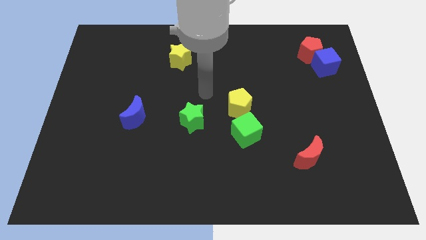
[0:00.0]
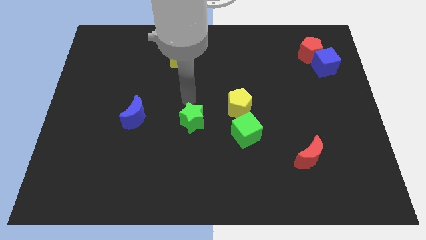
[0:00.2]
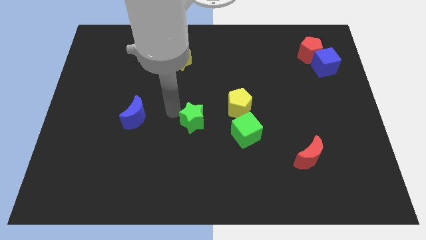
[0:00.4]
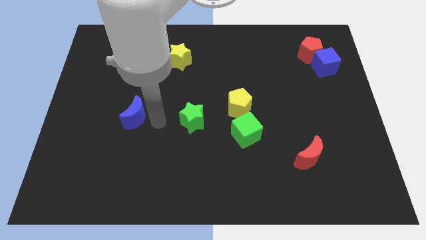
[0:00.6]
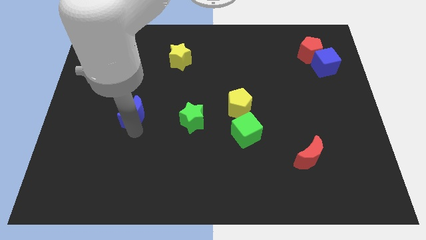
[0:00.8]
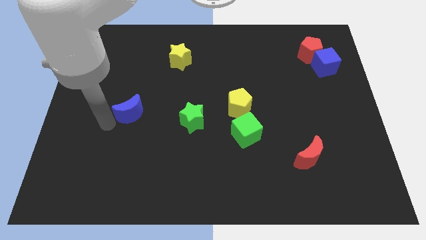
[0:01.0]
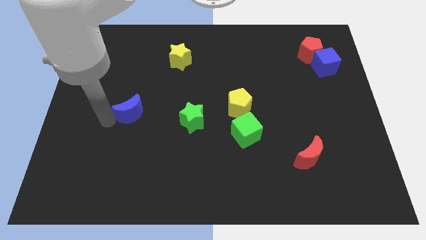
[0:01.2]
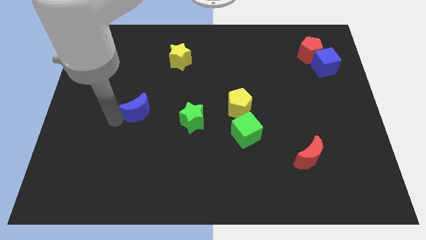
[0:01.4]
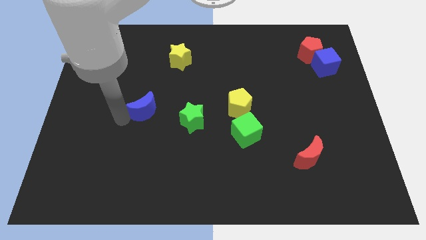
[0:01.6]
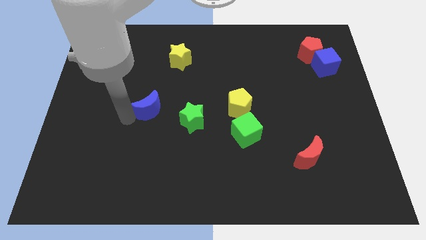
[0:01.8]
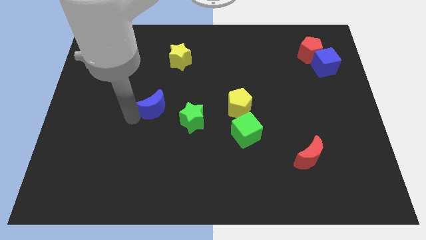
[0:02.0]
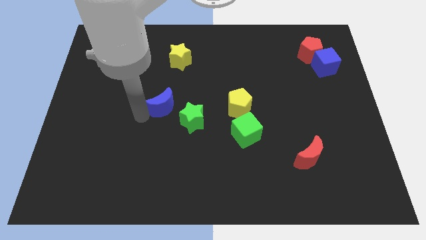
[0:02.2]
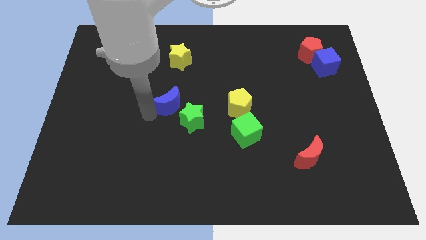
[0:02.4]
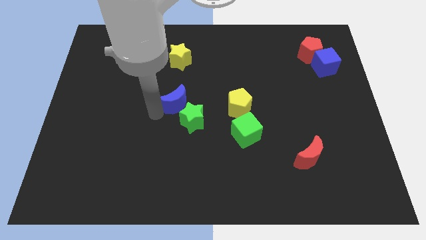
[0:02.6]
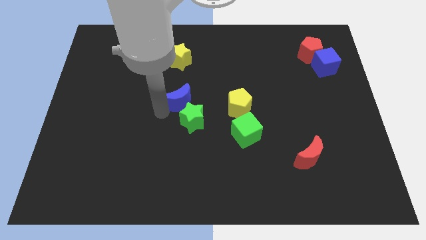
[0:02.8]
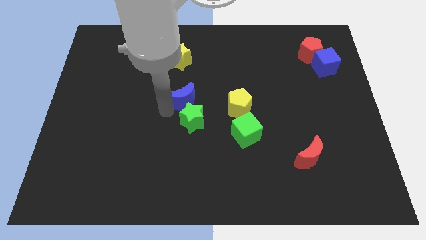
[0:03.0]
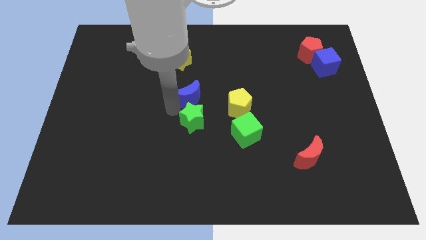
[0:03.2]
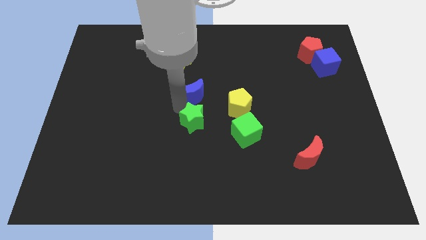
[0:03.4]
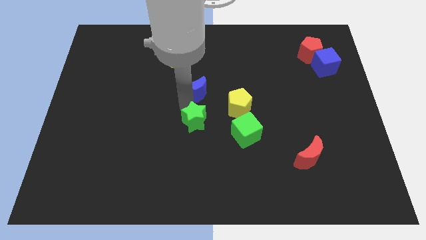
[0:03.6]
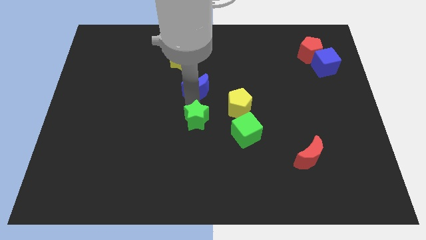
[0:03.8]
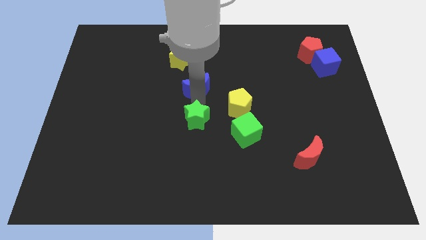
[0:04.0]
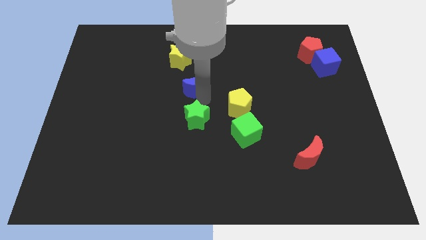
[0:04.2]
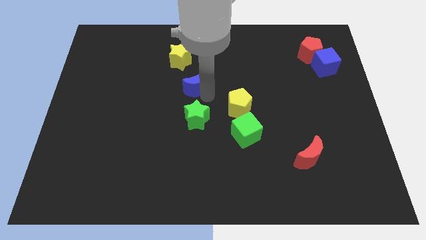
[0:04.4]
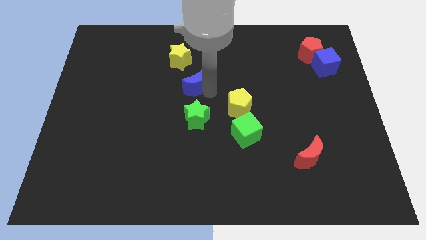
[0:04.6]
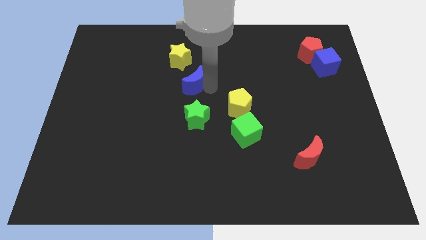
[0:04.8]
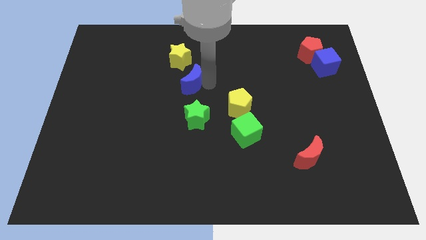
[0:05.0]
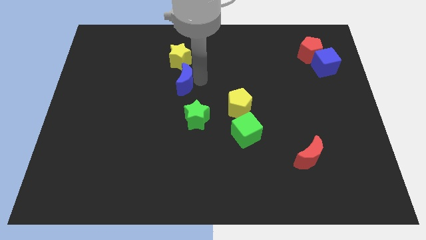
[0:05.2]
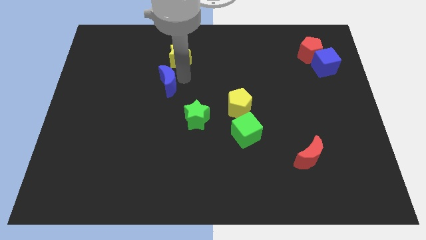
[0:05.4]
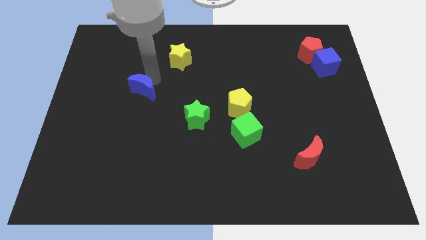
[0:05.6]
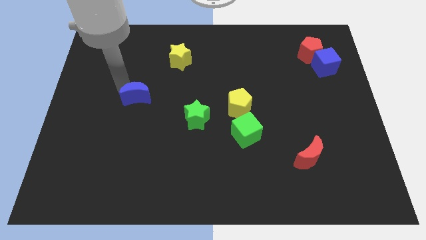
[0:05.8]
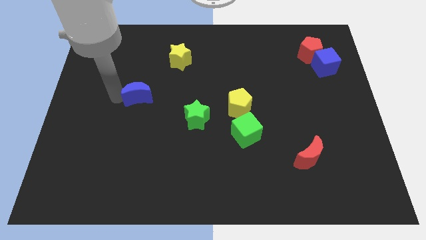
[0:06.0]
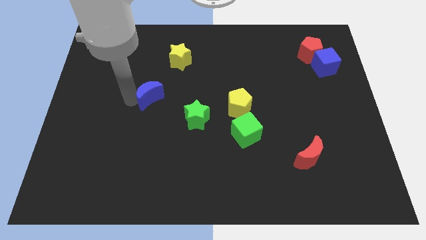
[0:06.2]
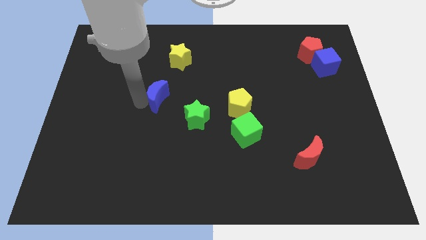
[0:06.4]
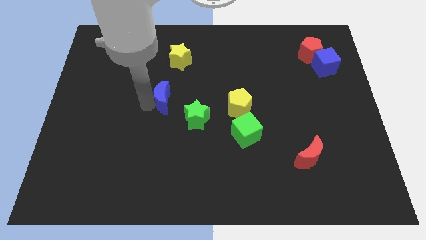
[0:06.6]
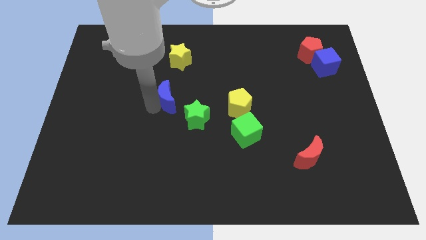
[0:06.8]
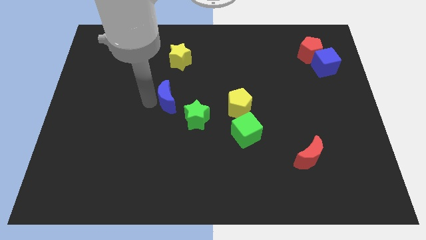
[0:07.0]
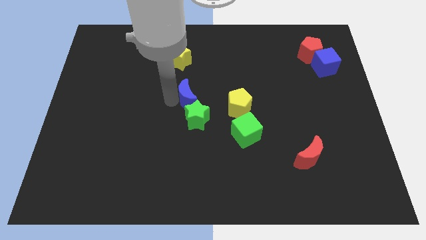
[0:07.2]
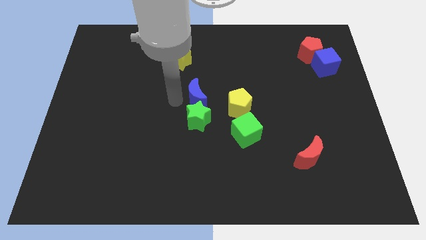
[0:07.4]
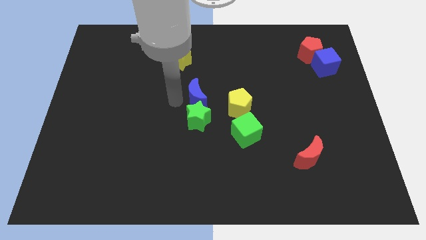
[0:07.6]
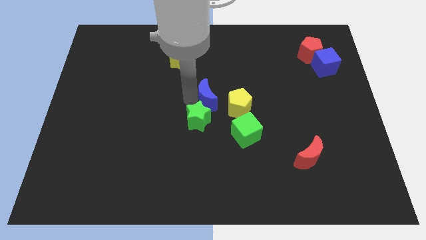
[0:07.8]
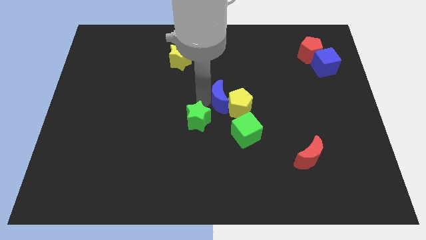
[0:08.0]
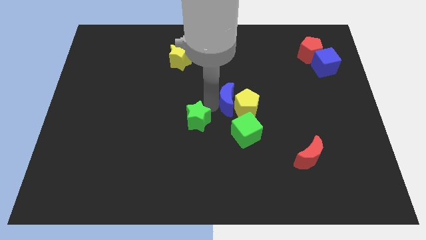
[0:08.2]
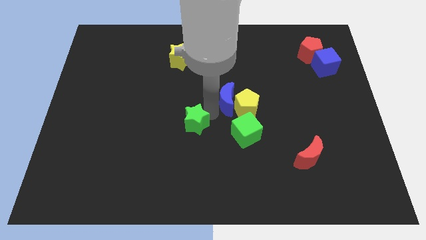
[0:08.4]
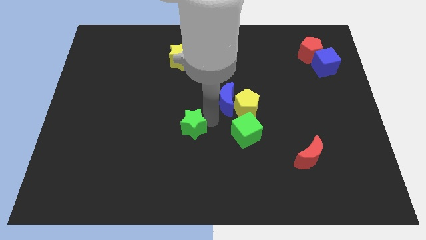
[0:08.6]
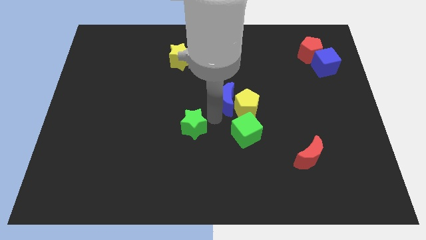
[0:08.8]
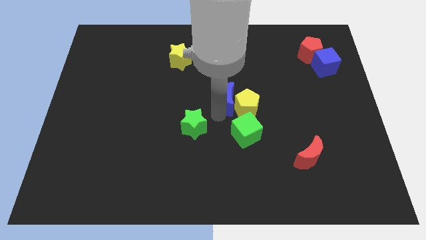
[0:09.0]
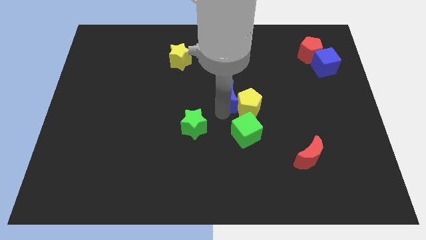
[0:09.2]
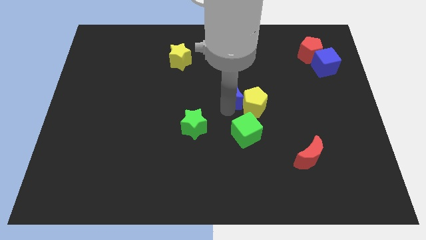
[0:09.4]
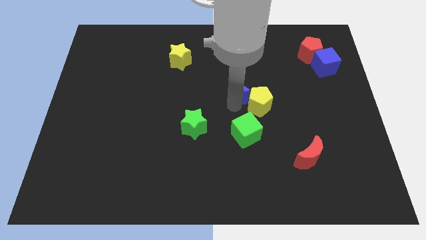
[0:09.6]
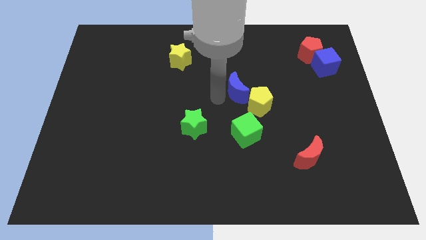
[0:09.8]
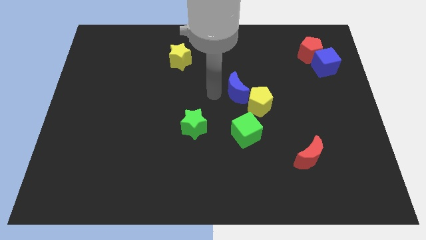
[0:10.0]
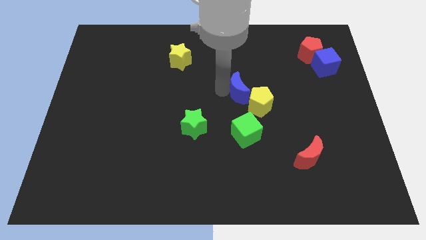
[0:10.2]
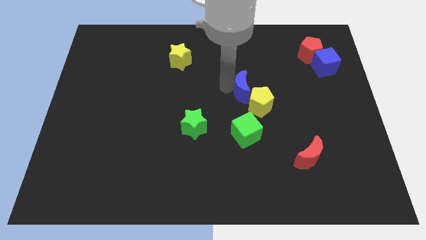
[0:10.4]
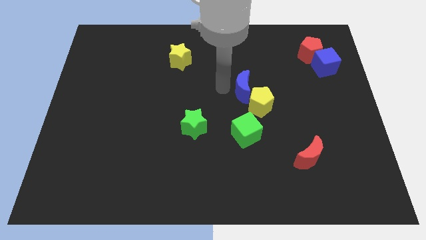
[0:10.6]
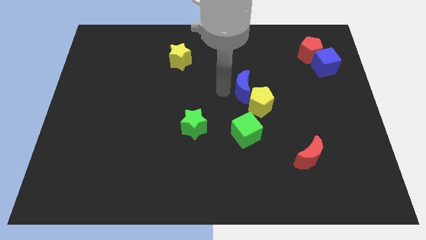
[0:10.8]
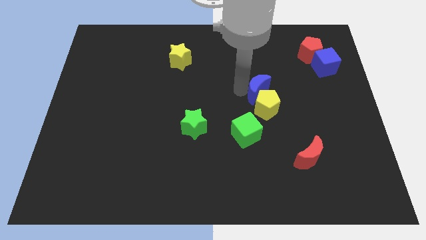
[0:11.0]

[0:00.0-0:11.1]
put the blue moon to the top right side of the yellow pentagon

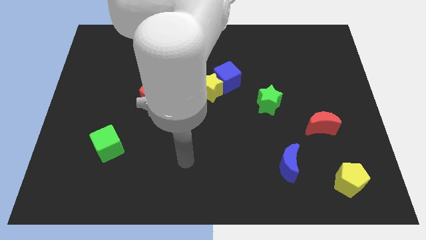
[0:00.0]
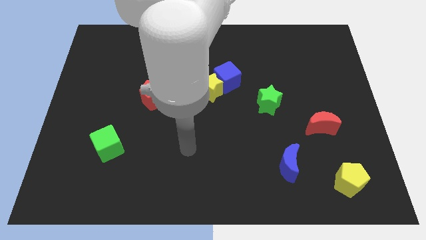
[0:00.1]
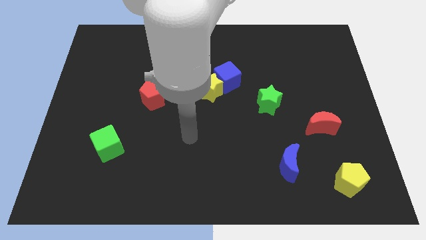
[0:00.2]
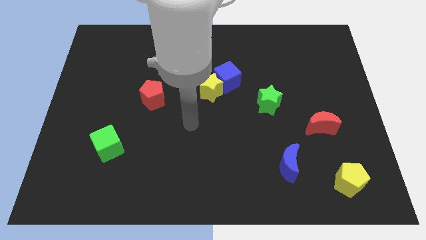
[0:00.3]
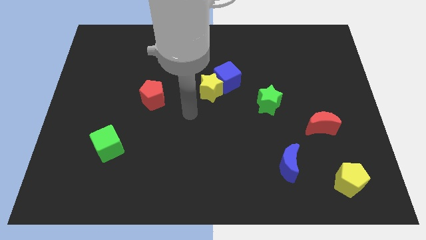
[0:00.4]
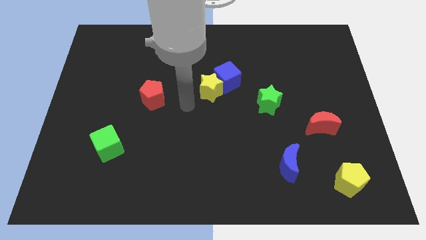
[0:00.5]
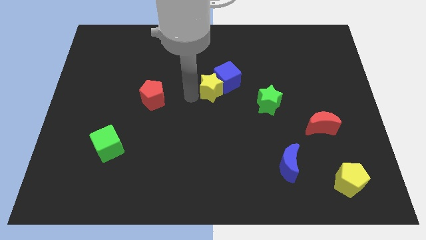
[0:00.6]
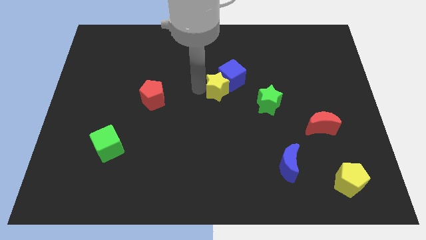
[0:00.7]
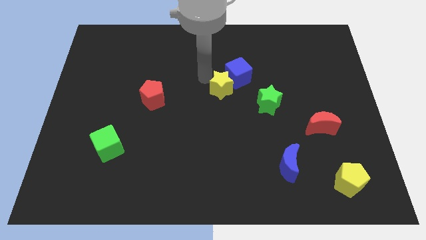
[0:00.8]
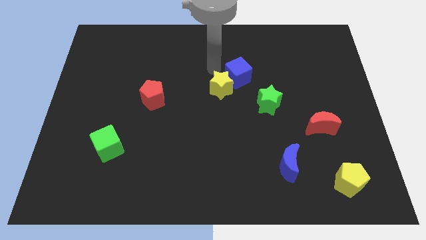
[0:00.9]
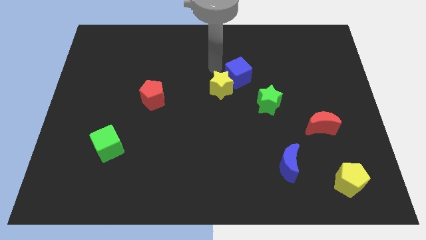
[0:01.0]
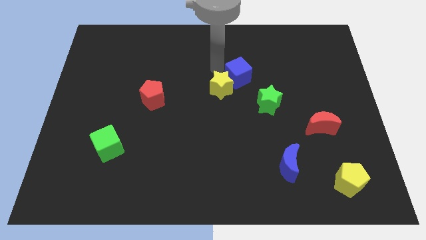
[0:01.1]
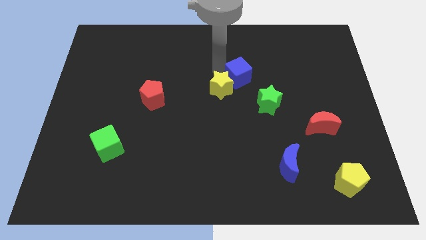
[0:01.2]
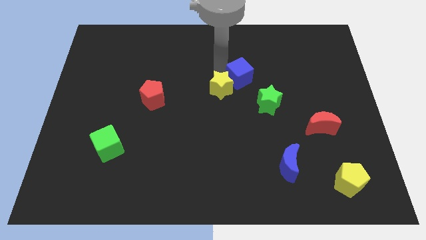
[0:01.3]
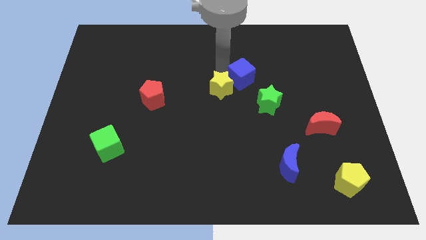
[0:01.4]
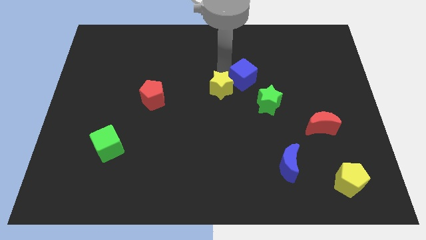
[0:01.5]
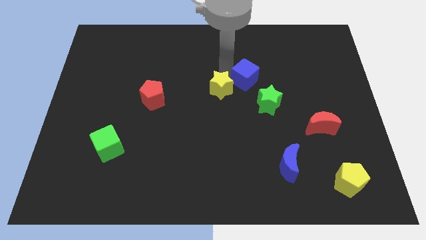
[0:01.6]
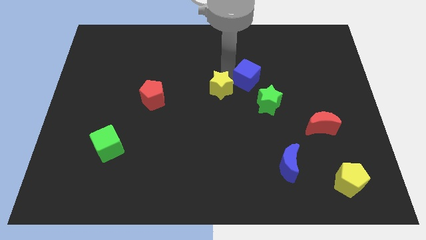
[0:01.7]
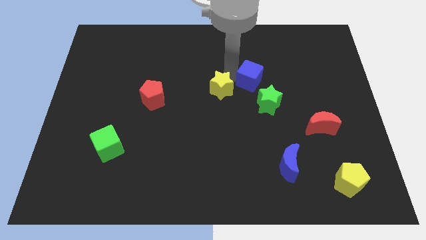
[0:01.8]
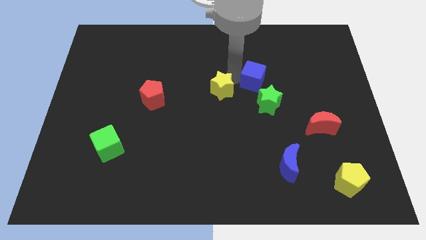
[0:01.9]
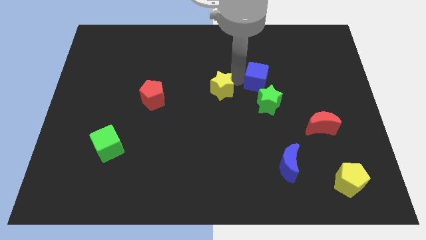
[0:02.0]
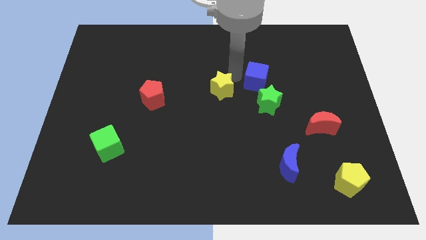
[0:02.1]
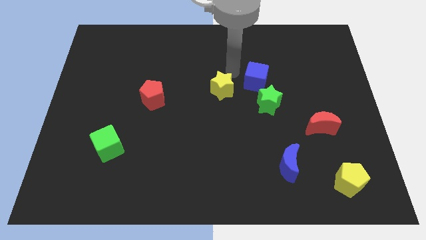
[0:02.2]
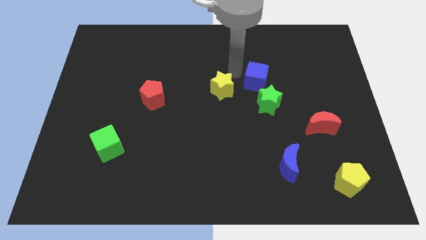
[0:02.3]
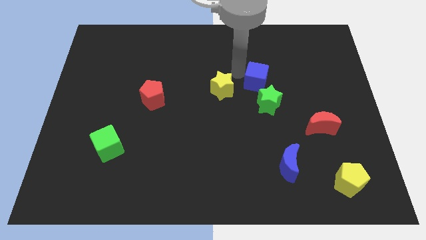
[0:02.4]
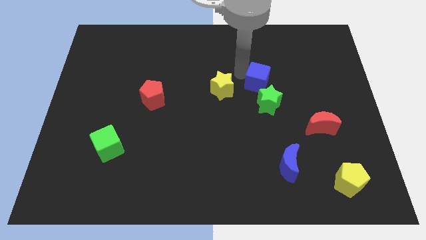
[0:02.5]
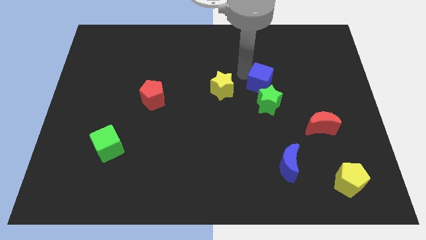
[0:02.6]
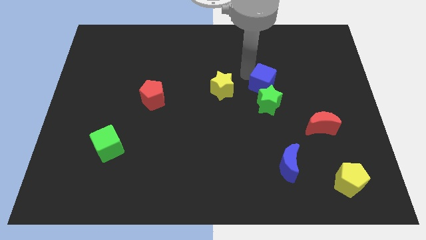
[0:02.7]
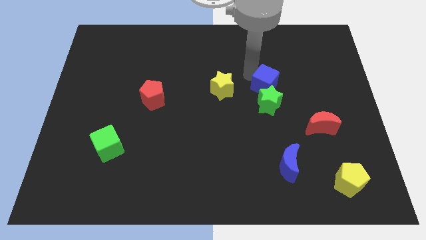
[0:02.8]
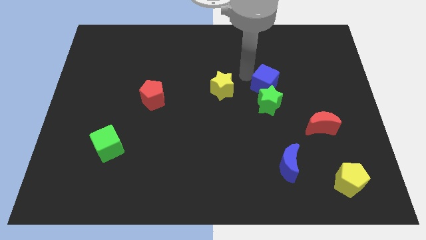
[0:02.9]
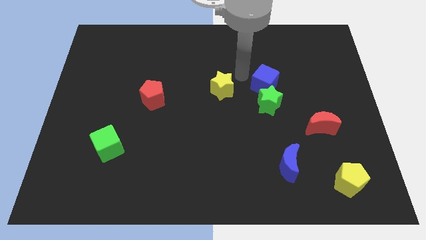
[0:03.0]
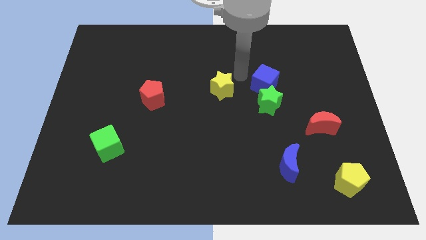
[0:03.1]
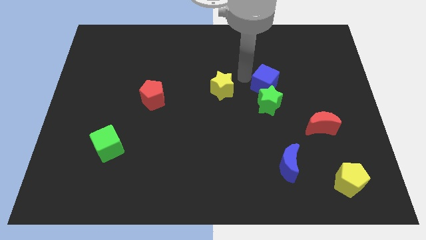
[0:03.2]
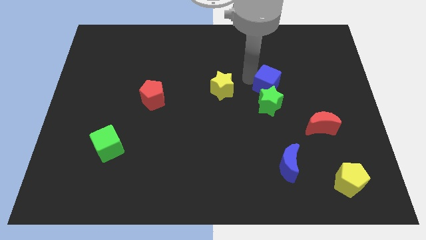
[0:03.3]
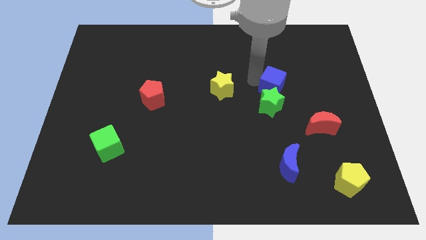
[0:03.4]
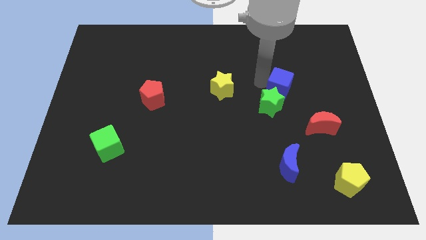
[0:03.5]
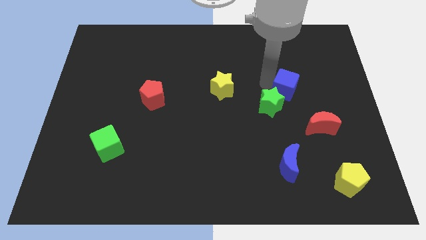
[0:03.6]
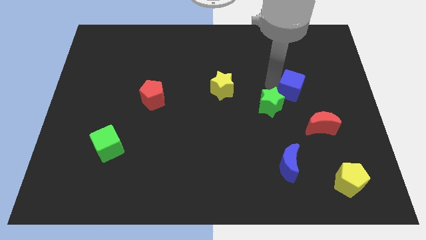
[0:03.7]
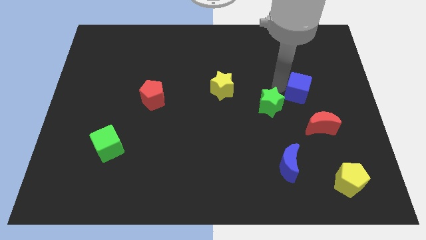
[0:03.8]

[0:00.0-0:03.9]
put the blue cube to the top of the red moon
